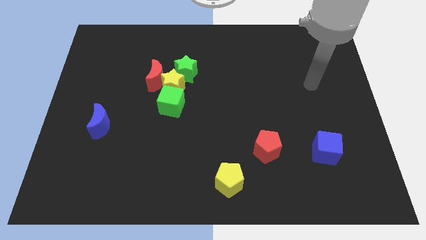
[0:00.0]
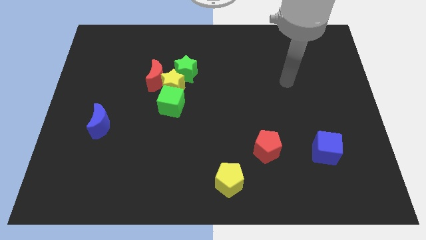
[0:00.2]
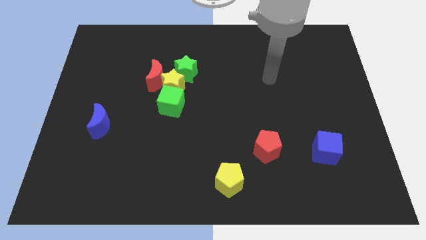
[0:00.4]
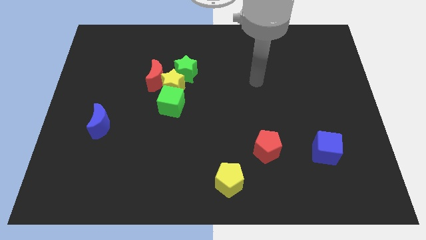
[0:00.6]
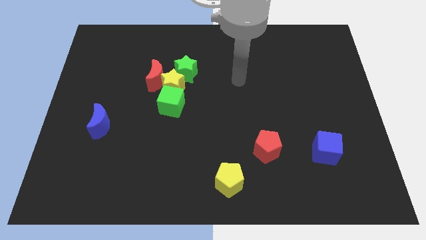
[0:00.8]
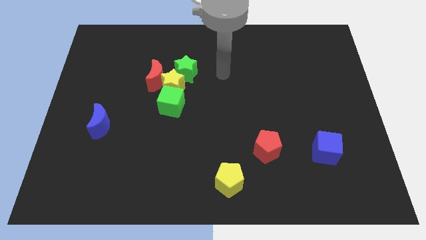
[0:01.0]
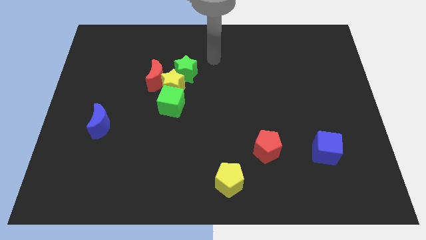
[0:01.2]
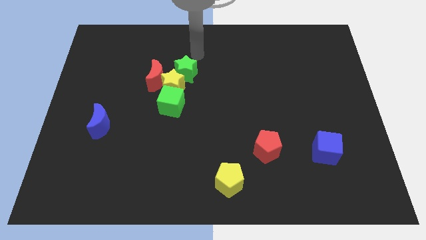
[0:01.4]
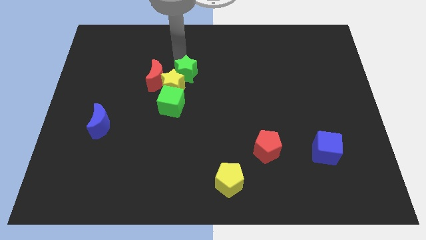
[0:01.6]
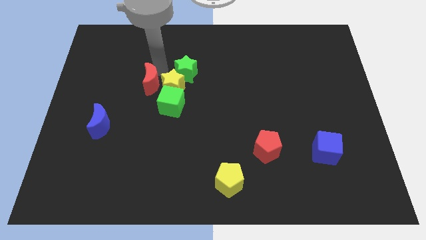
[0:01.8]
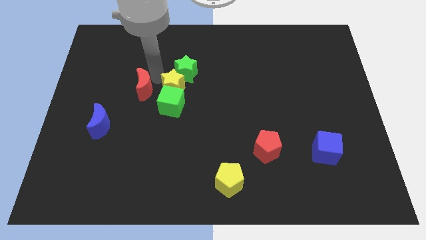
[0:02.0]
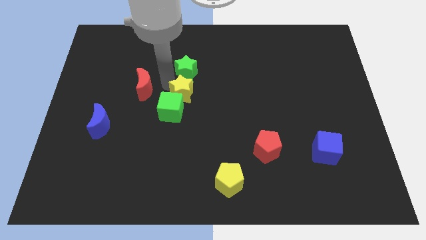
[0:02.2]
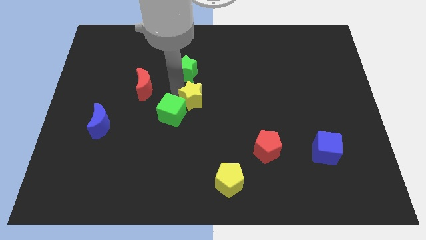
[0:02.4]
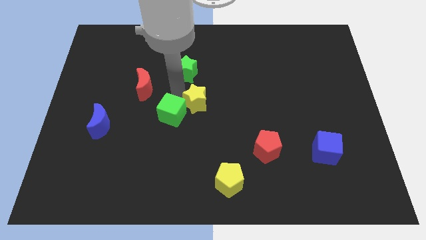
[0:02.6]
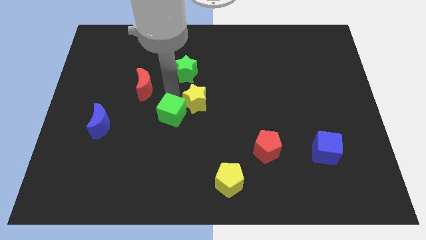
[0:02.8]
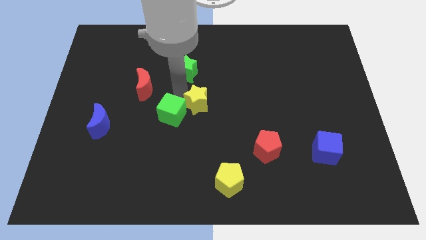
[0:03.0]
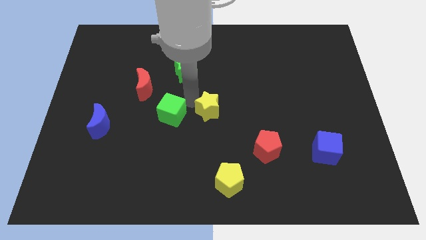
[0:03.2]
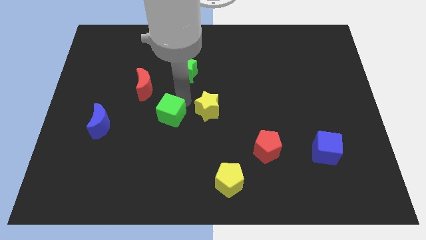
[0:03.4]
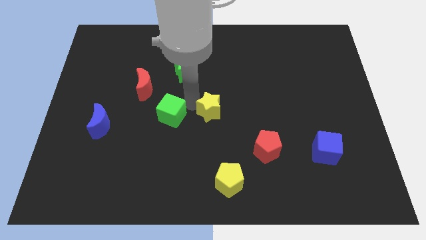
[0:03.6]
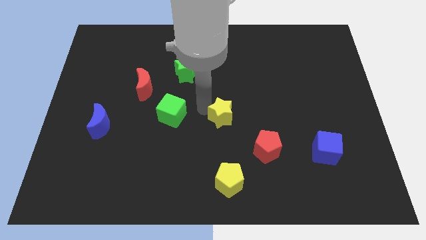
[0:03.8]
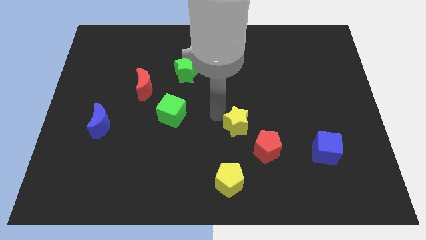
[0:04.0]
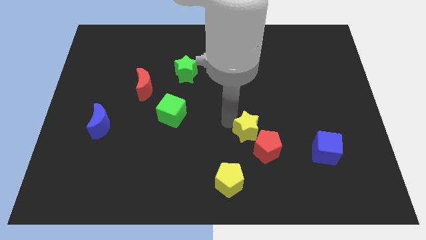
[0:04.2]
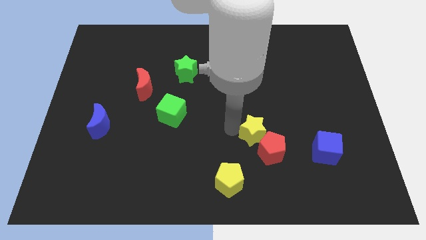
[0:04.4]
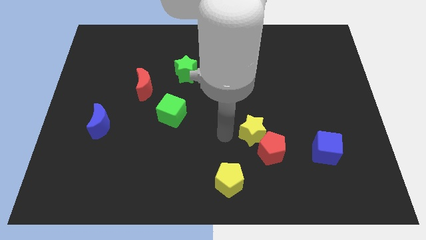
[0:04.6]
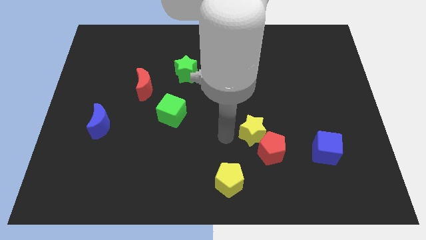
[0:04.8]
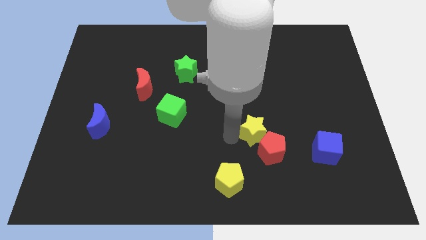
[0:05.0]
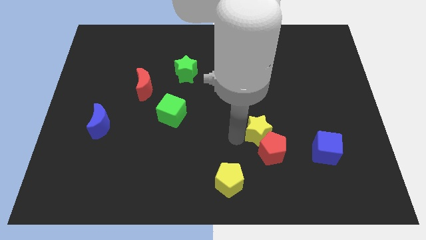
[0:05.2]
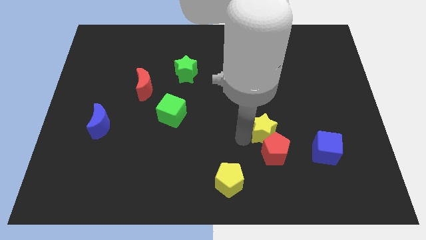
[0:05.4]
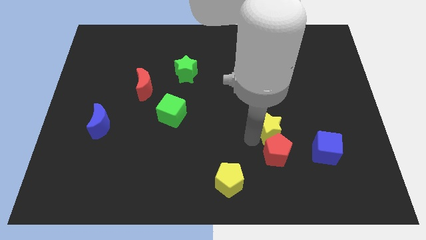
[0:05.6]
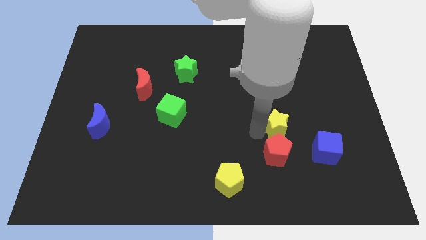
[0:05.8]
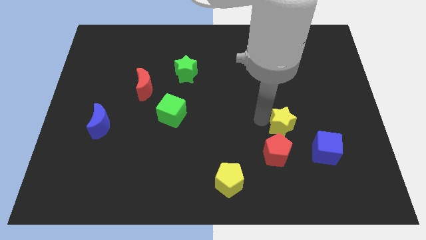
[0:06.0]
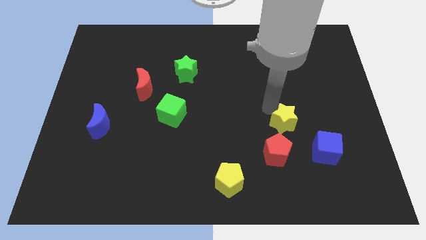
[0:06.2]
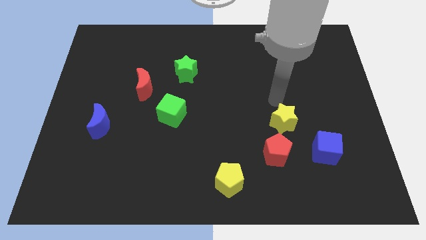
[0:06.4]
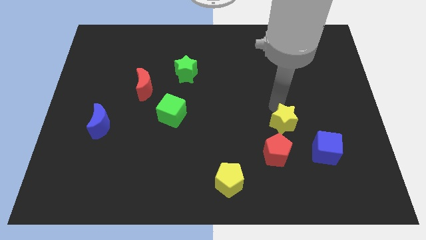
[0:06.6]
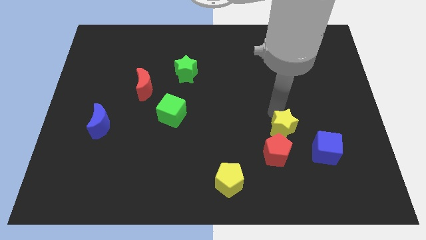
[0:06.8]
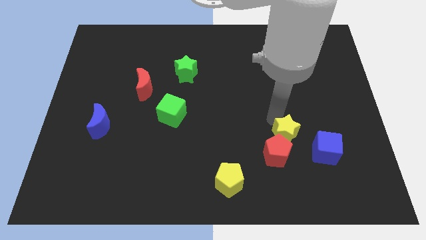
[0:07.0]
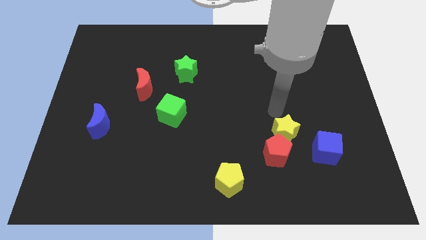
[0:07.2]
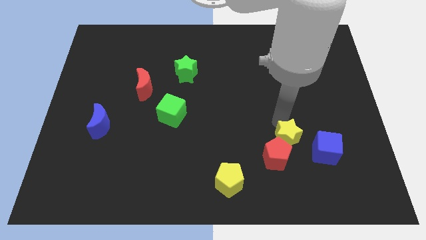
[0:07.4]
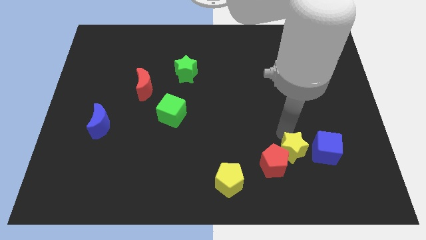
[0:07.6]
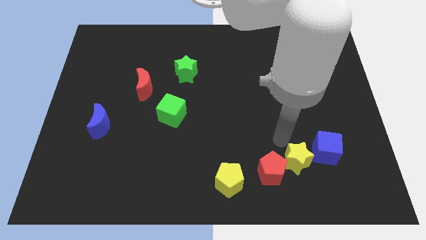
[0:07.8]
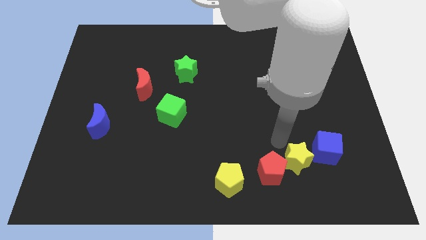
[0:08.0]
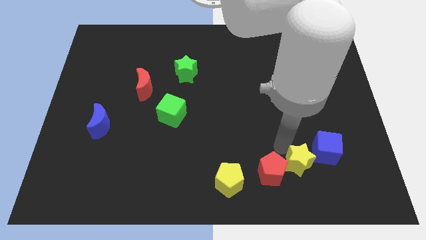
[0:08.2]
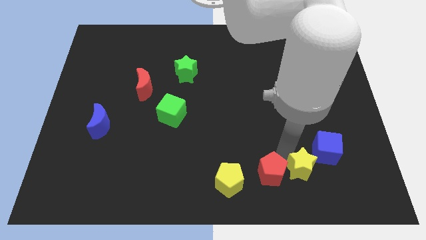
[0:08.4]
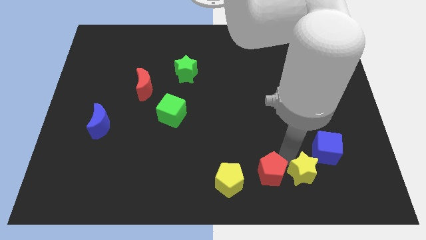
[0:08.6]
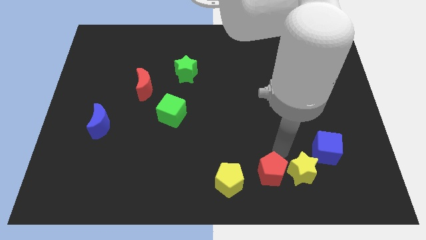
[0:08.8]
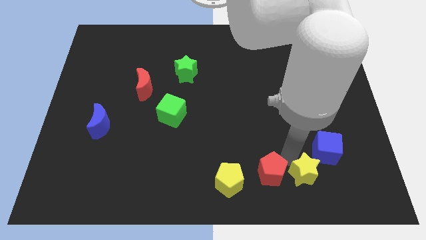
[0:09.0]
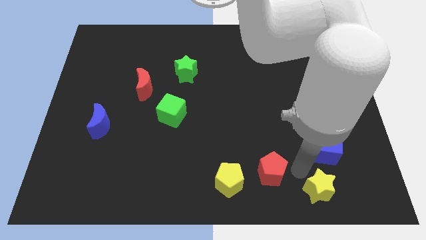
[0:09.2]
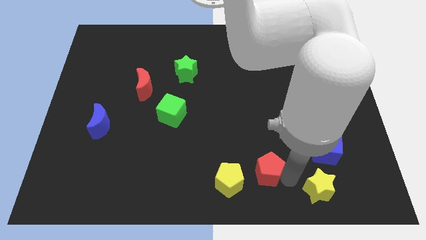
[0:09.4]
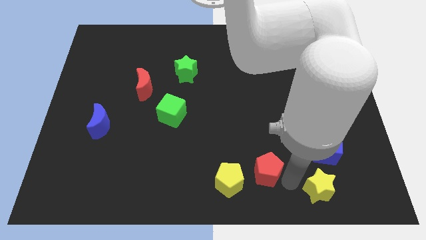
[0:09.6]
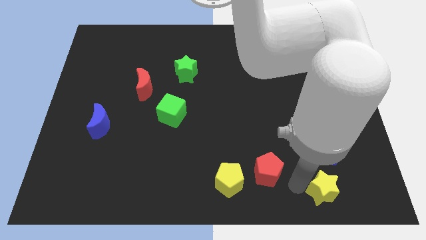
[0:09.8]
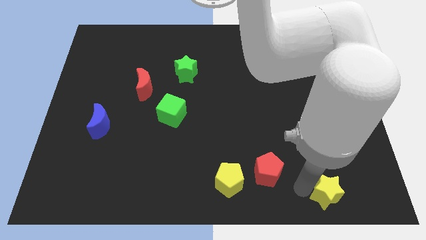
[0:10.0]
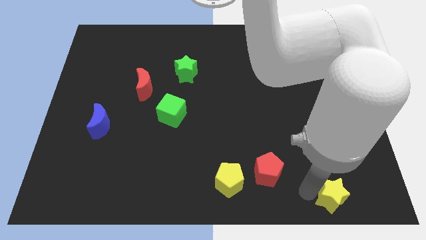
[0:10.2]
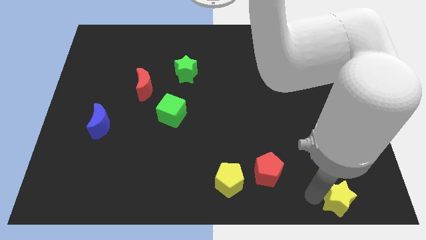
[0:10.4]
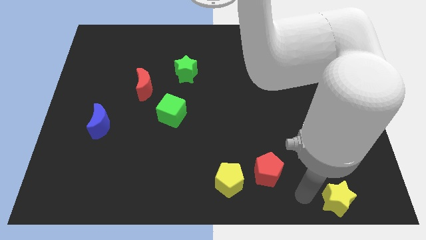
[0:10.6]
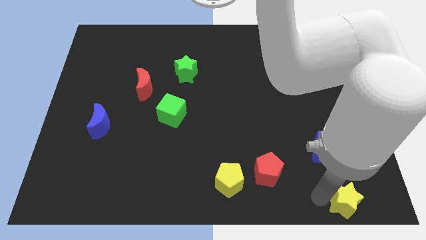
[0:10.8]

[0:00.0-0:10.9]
push the yellow star to the lower right corner

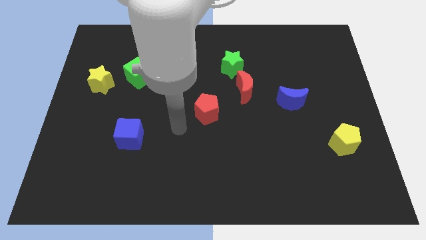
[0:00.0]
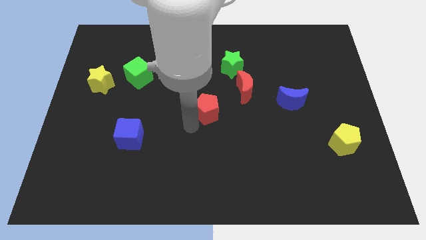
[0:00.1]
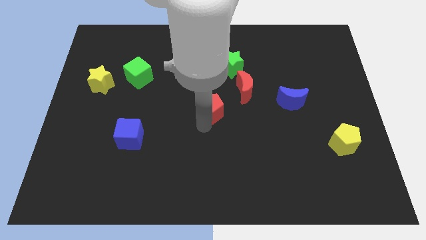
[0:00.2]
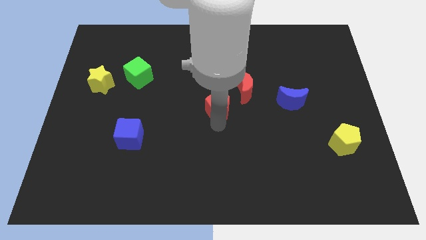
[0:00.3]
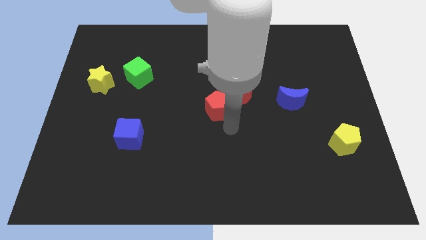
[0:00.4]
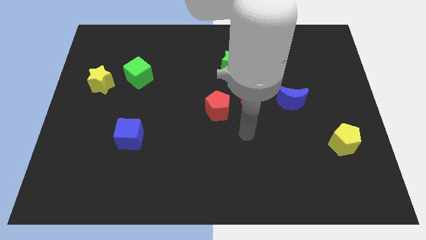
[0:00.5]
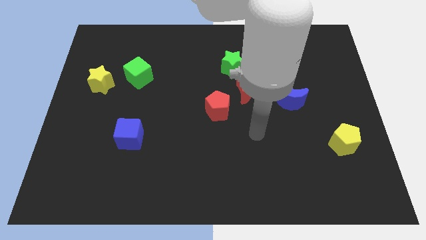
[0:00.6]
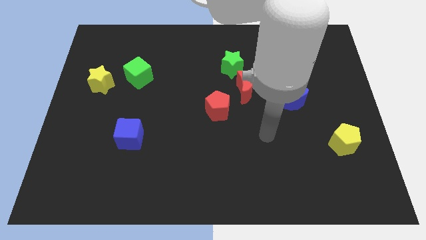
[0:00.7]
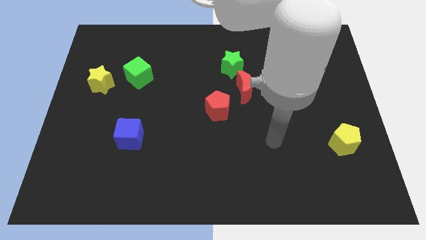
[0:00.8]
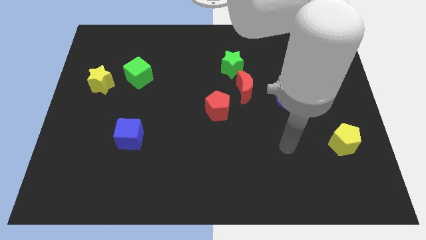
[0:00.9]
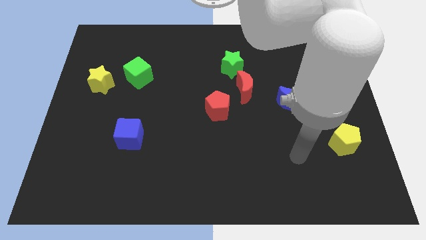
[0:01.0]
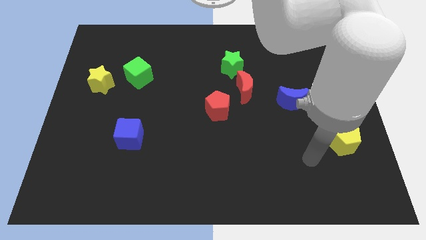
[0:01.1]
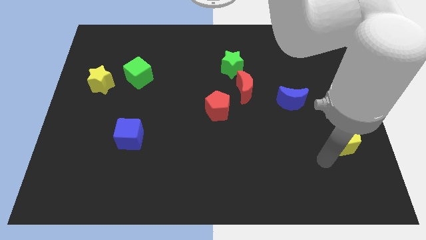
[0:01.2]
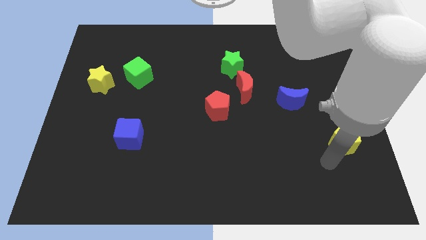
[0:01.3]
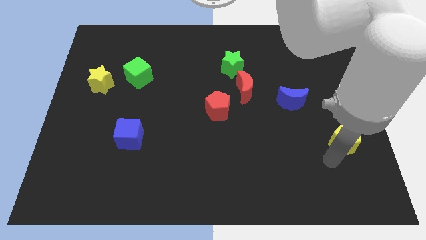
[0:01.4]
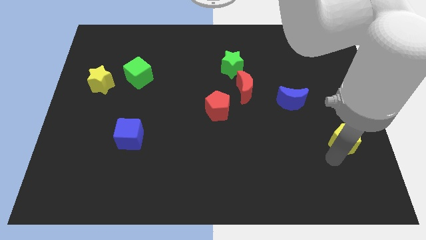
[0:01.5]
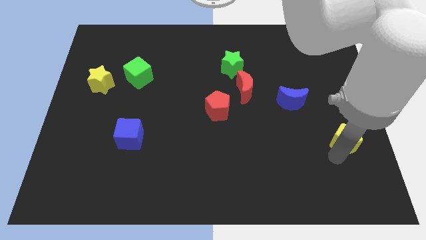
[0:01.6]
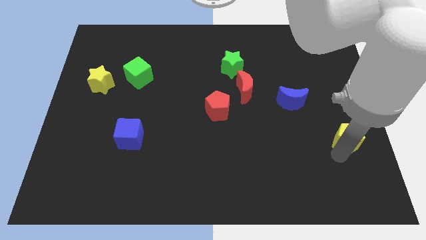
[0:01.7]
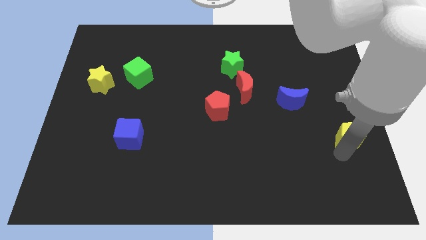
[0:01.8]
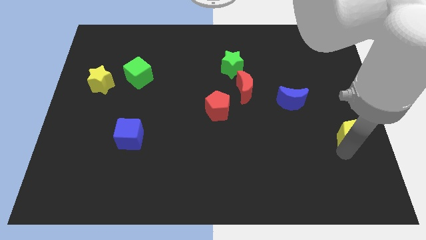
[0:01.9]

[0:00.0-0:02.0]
slide the yellow pentagon to the center right
